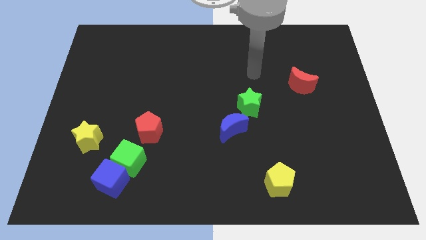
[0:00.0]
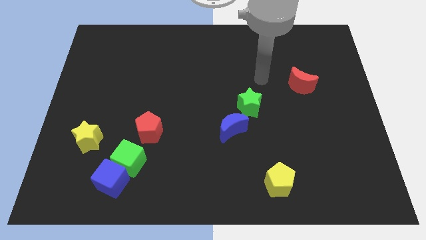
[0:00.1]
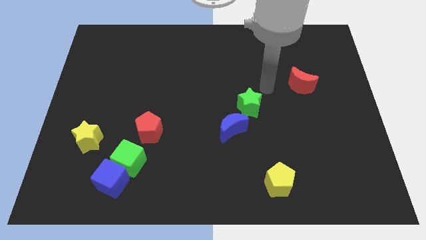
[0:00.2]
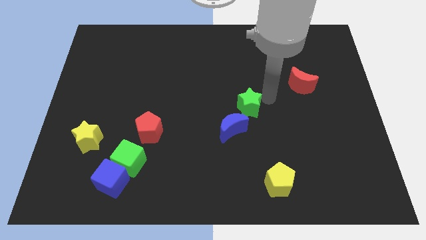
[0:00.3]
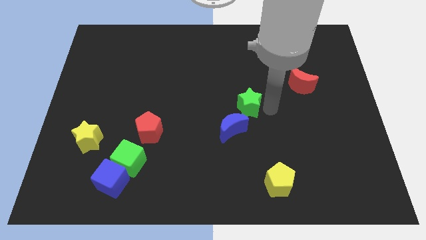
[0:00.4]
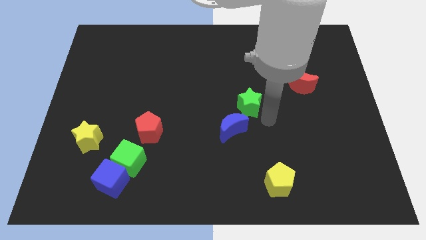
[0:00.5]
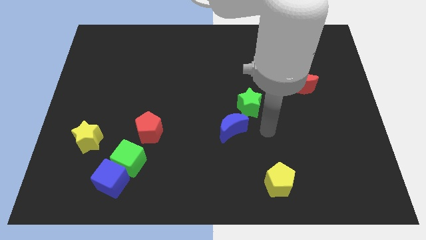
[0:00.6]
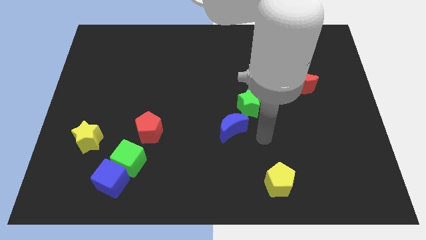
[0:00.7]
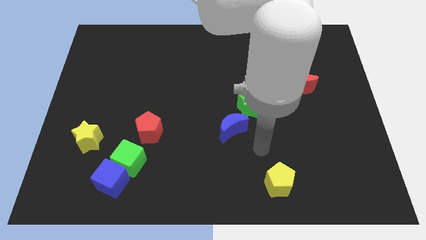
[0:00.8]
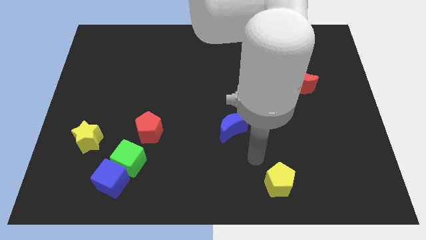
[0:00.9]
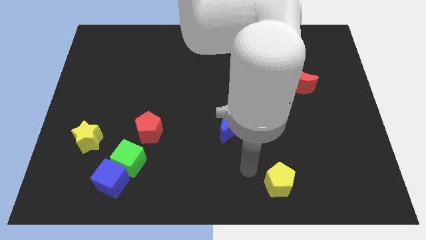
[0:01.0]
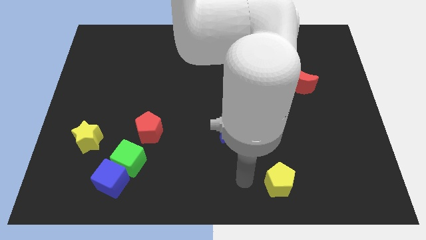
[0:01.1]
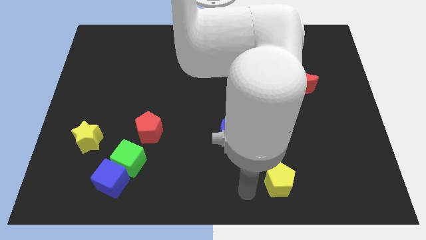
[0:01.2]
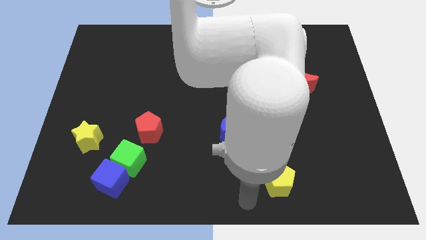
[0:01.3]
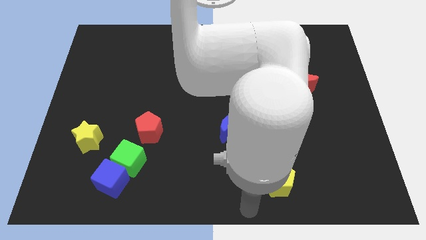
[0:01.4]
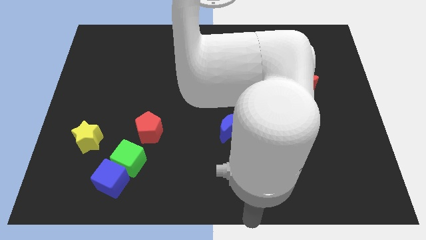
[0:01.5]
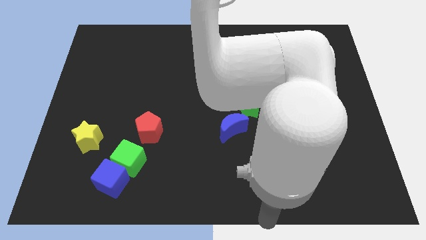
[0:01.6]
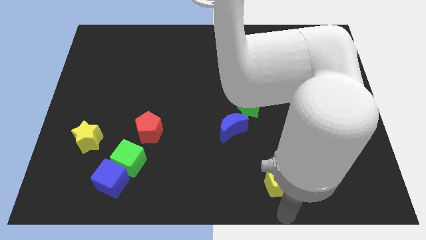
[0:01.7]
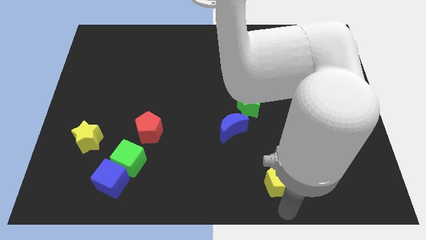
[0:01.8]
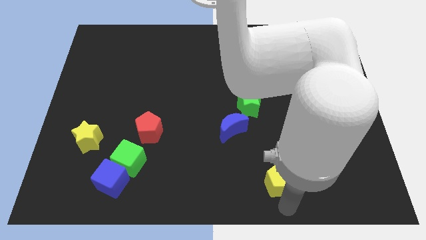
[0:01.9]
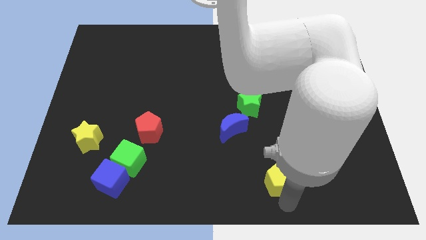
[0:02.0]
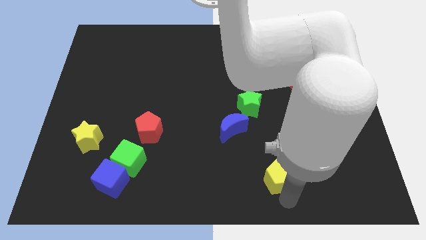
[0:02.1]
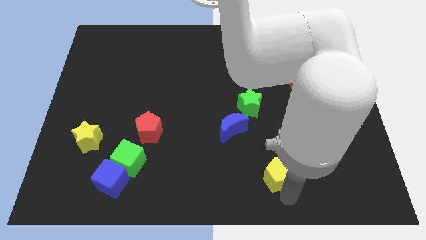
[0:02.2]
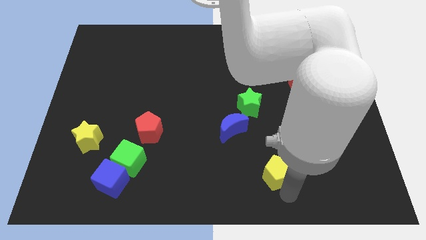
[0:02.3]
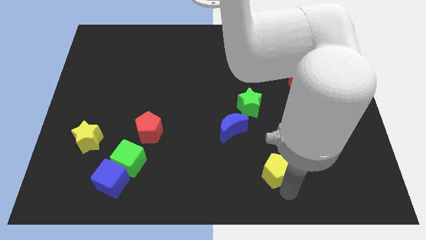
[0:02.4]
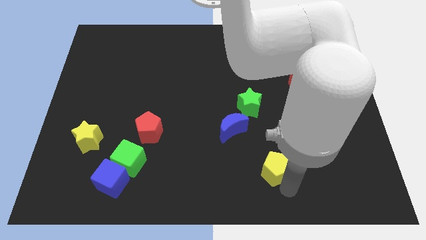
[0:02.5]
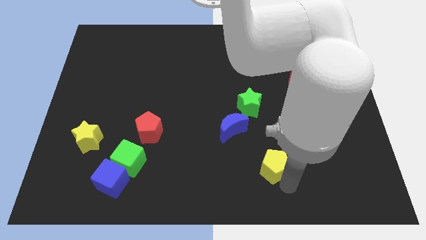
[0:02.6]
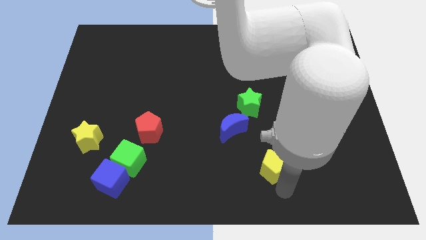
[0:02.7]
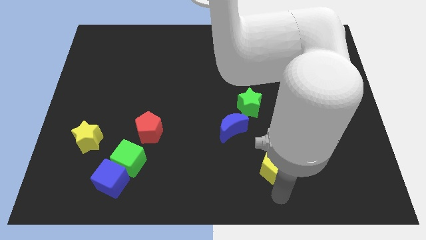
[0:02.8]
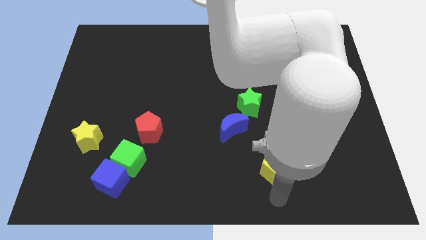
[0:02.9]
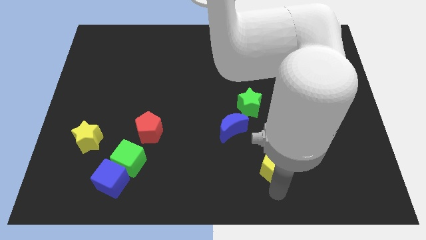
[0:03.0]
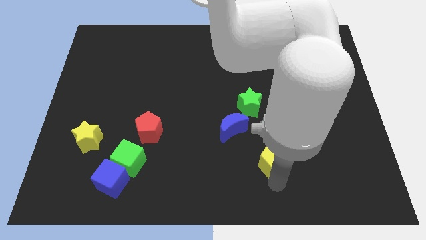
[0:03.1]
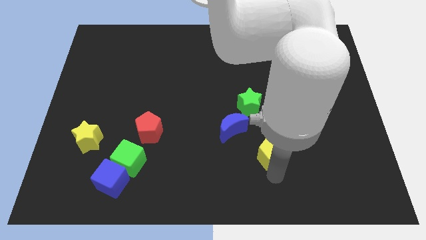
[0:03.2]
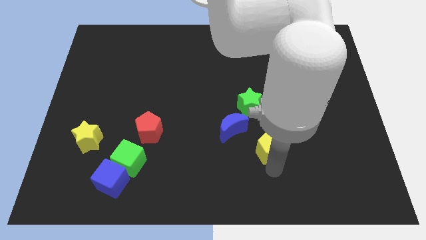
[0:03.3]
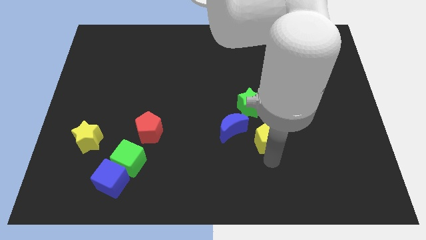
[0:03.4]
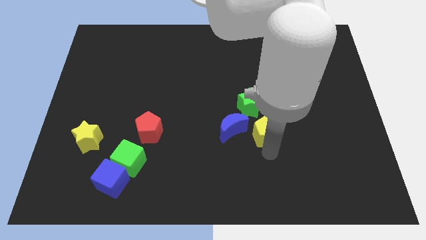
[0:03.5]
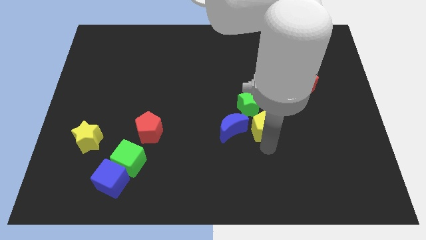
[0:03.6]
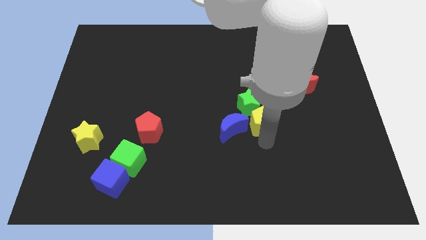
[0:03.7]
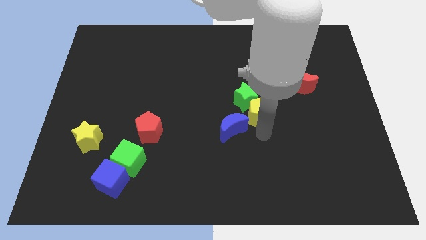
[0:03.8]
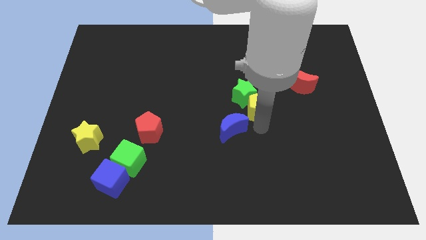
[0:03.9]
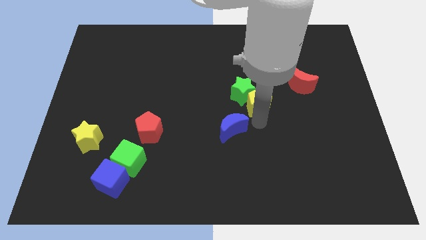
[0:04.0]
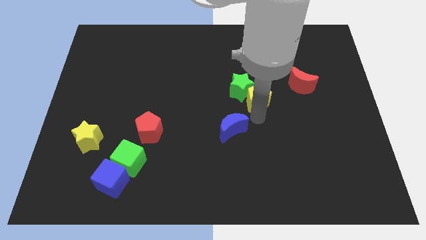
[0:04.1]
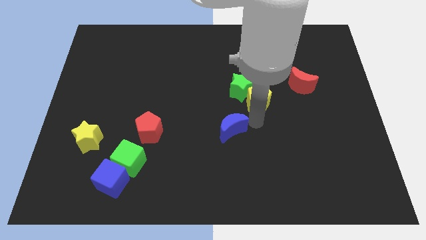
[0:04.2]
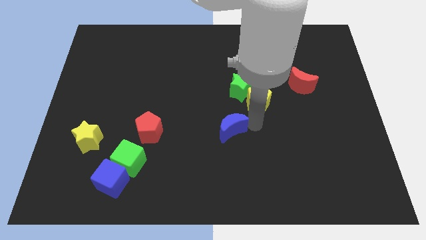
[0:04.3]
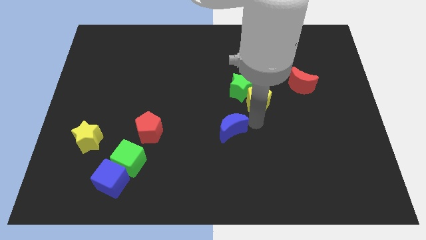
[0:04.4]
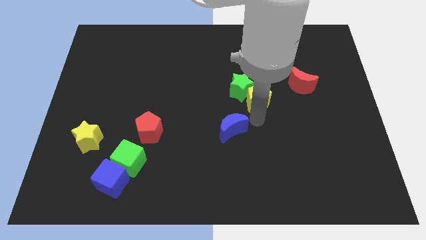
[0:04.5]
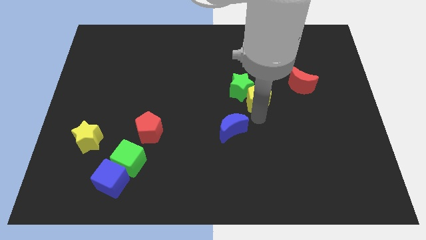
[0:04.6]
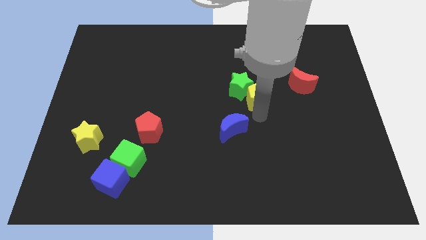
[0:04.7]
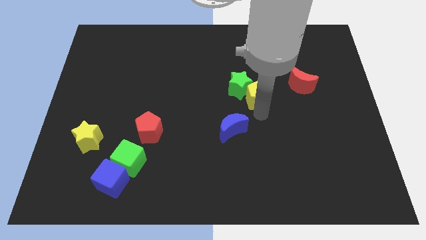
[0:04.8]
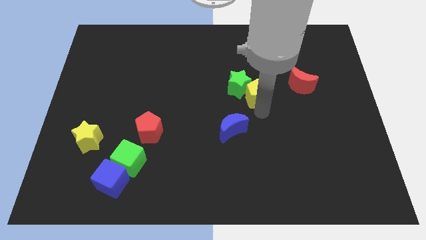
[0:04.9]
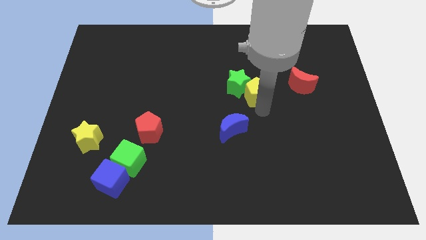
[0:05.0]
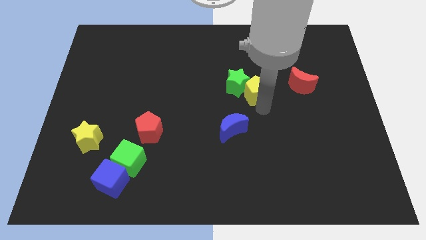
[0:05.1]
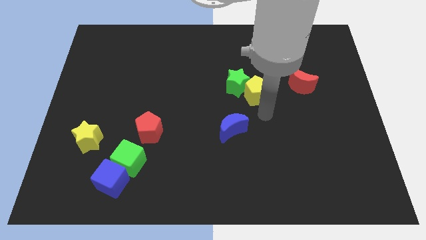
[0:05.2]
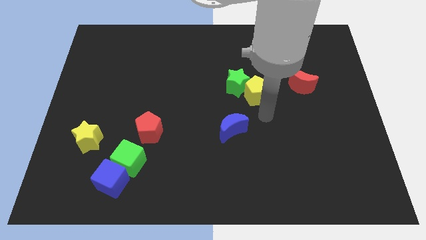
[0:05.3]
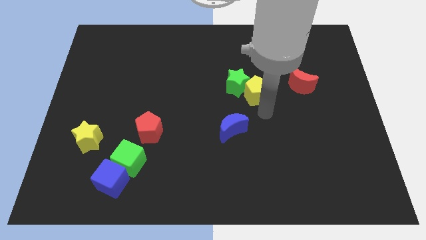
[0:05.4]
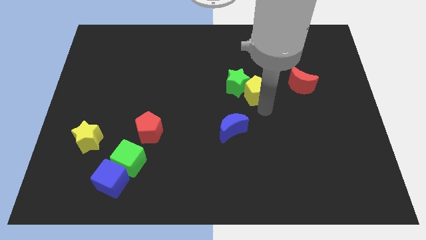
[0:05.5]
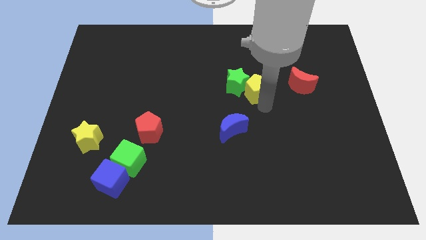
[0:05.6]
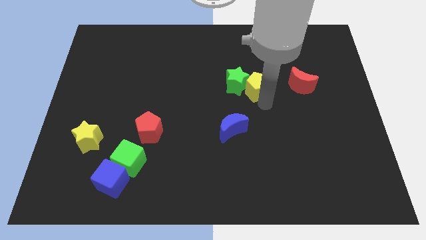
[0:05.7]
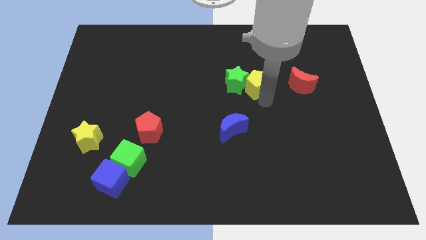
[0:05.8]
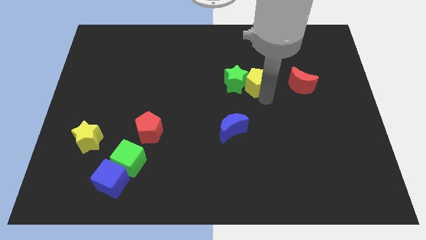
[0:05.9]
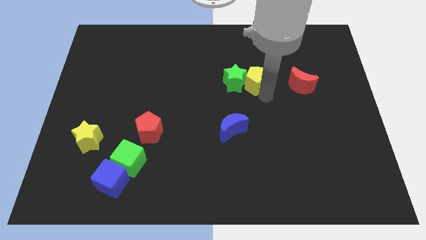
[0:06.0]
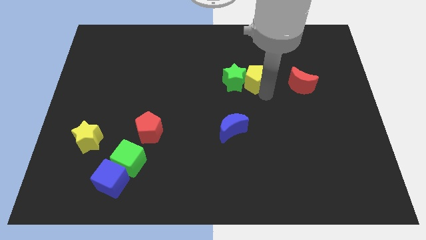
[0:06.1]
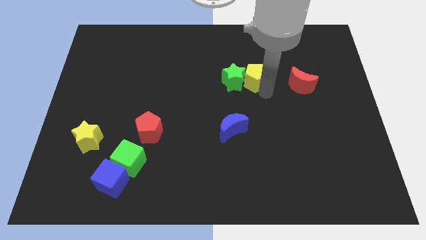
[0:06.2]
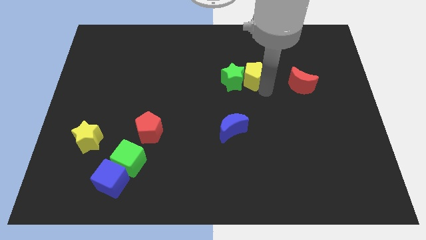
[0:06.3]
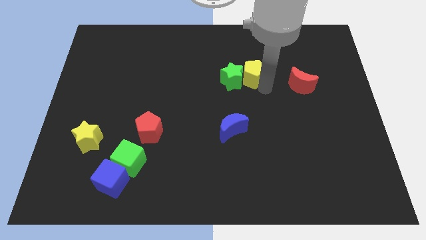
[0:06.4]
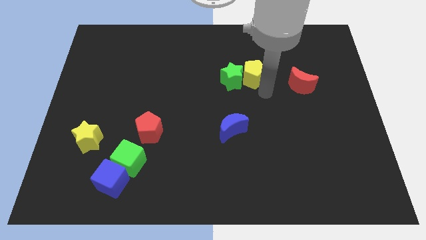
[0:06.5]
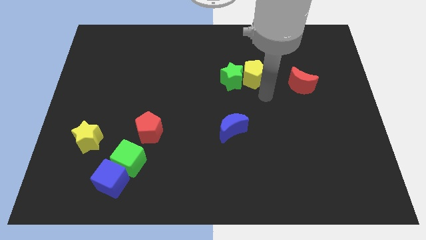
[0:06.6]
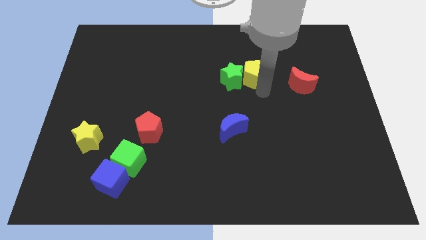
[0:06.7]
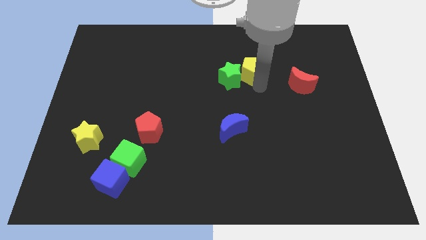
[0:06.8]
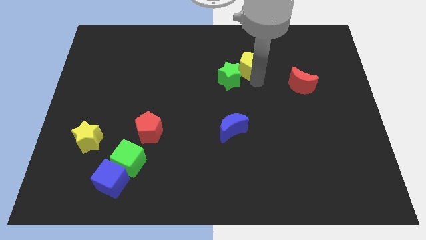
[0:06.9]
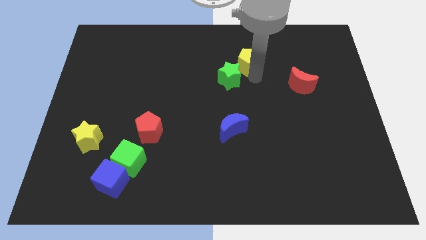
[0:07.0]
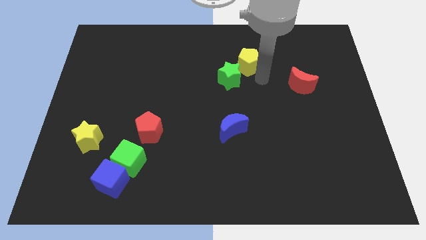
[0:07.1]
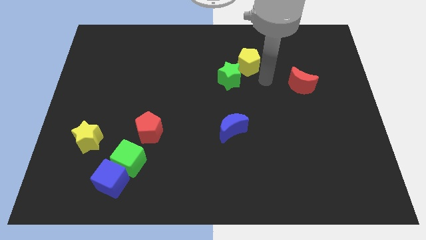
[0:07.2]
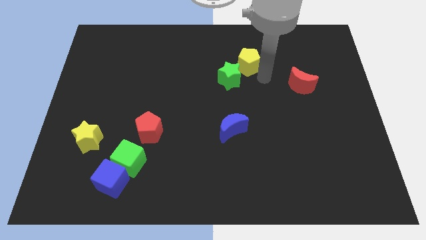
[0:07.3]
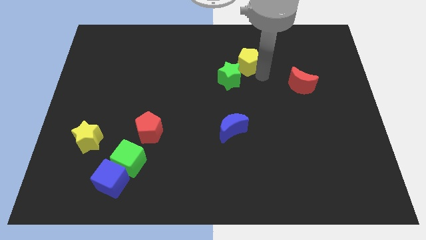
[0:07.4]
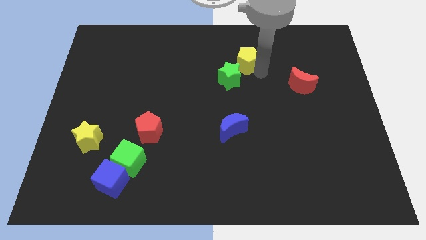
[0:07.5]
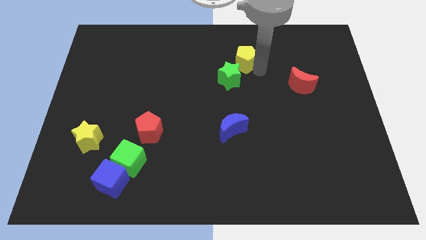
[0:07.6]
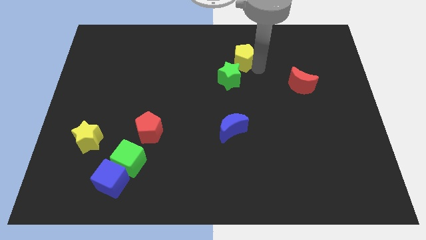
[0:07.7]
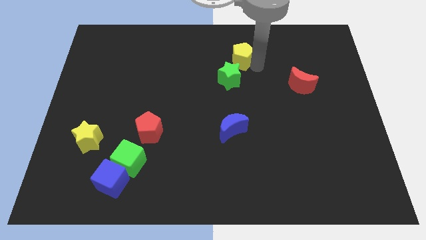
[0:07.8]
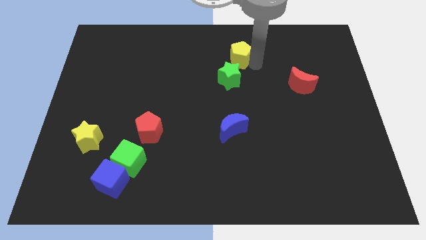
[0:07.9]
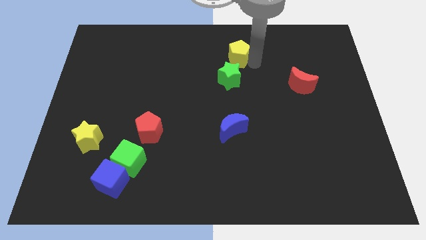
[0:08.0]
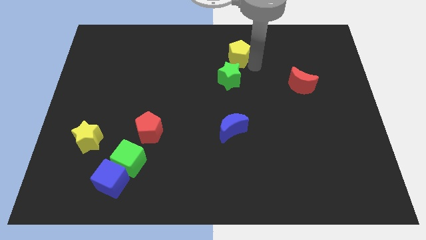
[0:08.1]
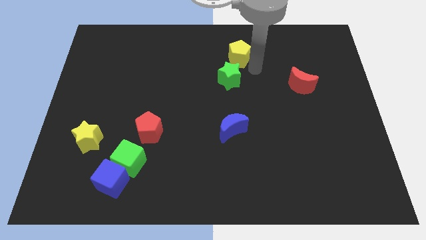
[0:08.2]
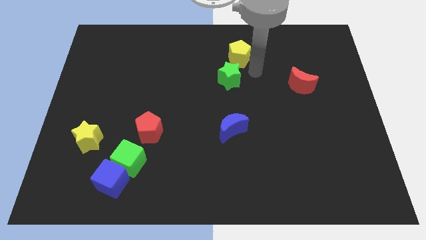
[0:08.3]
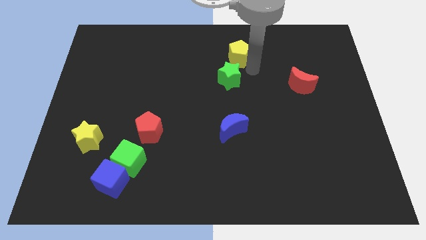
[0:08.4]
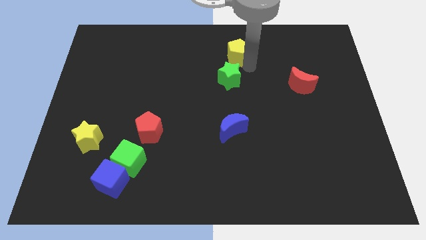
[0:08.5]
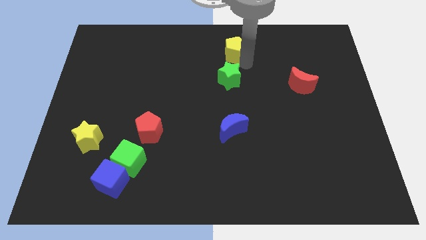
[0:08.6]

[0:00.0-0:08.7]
move the yellow pentagon to the towards your base
